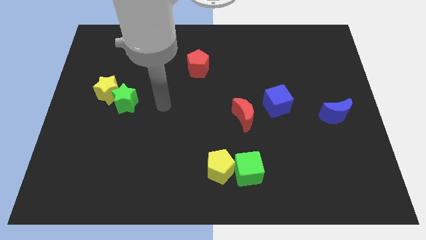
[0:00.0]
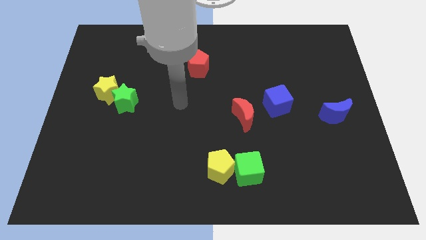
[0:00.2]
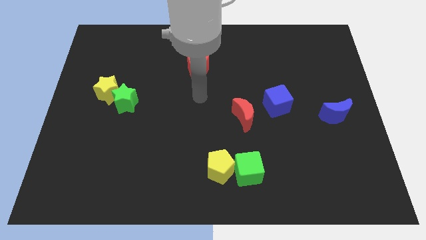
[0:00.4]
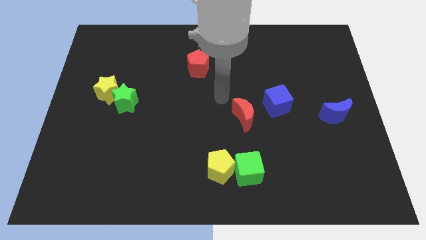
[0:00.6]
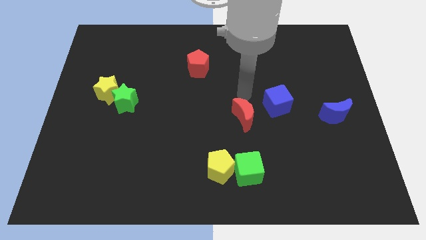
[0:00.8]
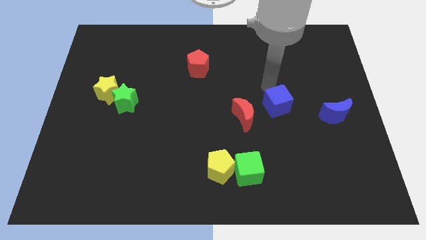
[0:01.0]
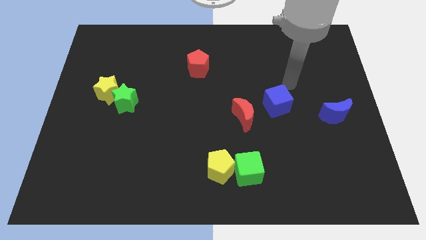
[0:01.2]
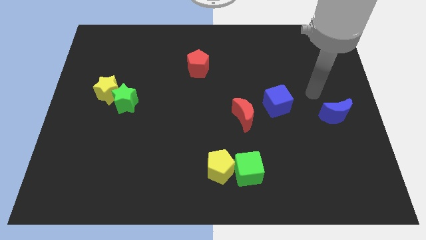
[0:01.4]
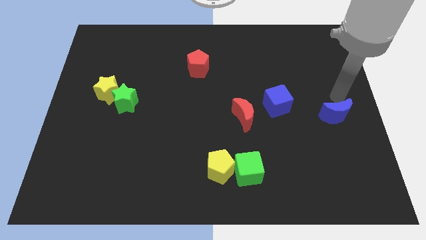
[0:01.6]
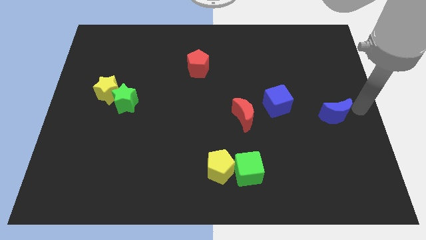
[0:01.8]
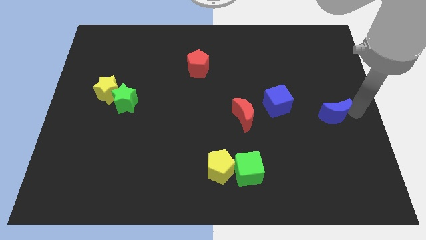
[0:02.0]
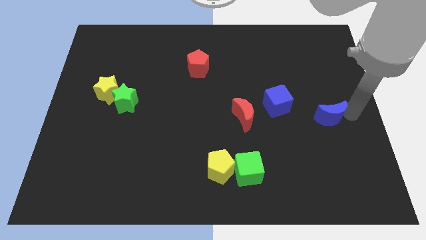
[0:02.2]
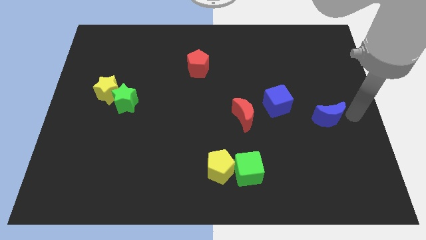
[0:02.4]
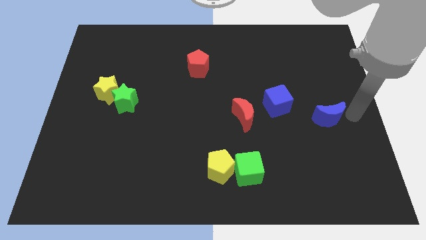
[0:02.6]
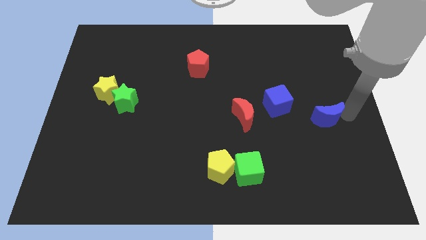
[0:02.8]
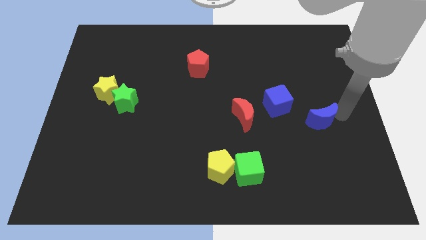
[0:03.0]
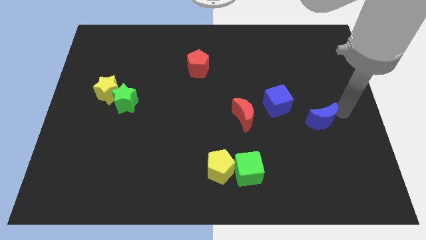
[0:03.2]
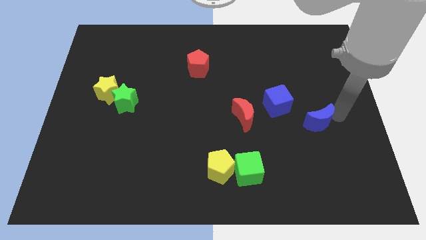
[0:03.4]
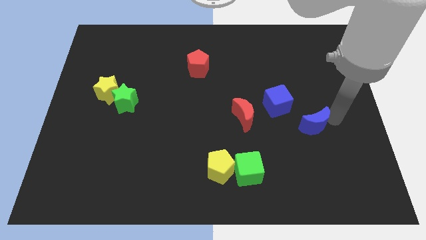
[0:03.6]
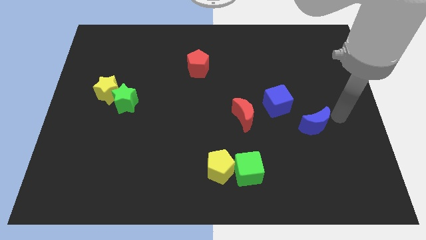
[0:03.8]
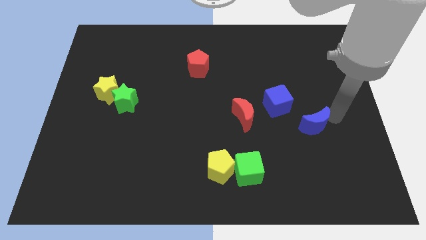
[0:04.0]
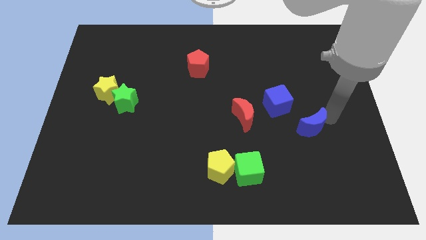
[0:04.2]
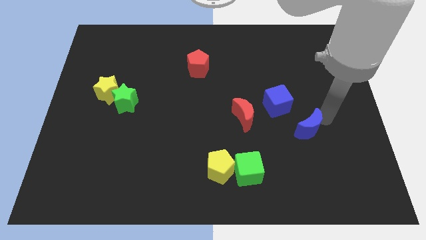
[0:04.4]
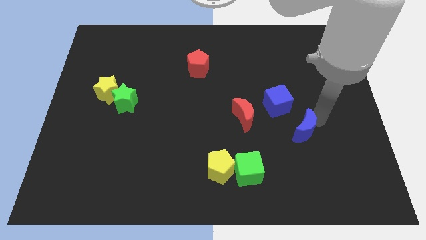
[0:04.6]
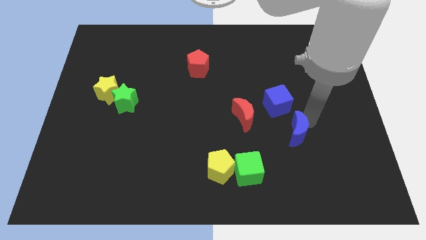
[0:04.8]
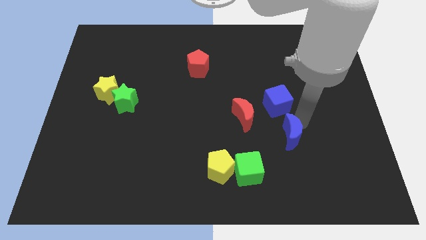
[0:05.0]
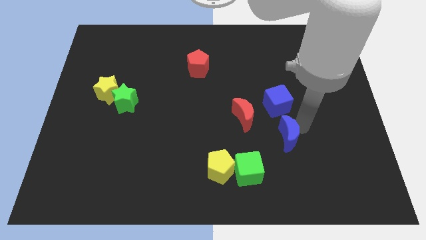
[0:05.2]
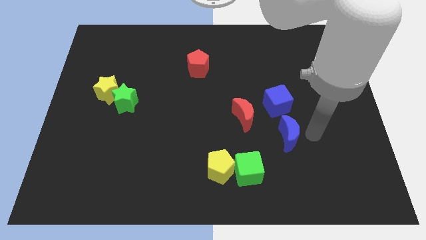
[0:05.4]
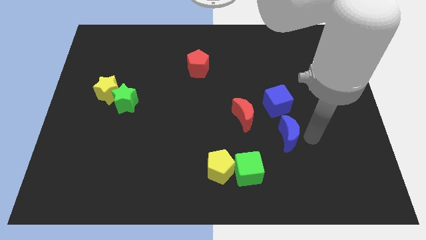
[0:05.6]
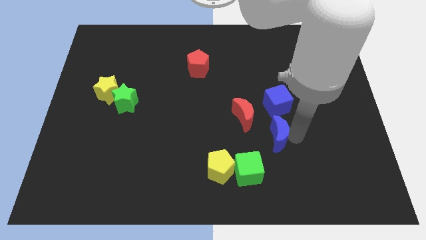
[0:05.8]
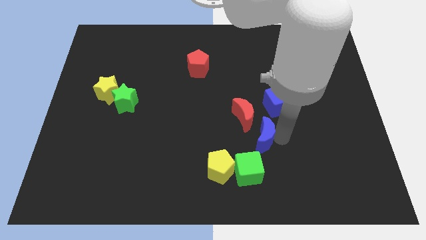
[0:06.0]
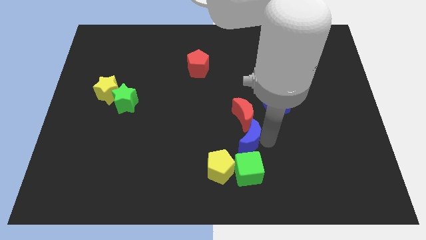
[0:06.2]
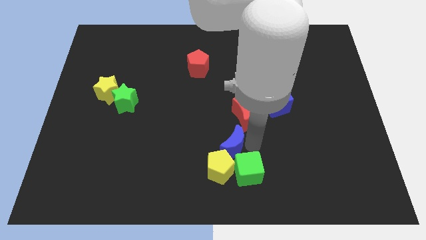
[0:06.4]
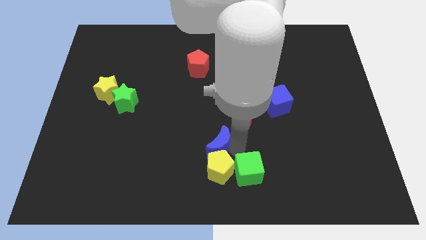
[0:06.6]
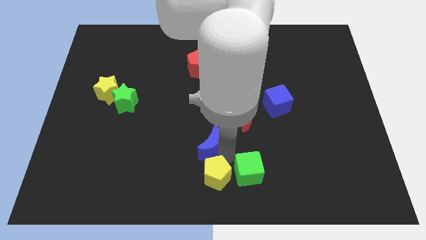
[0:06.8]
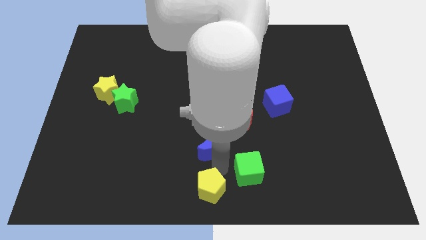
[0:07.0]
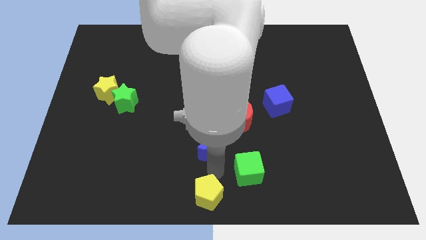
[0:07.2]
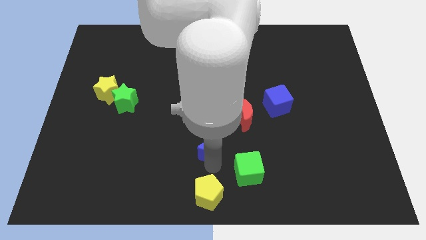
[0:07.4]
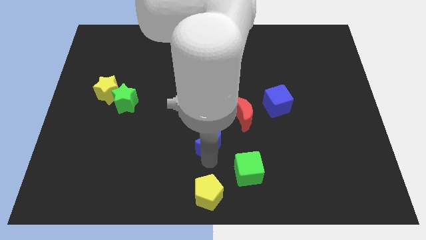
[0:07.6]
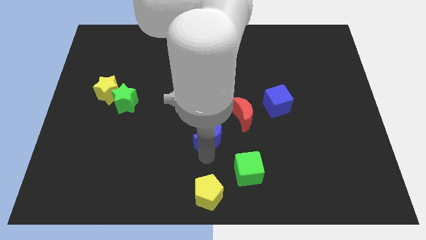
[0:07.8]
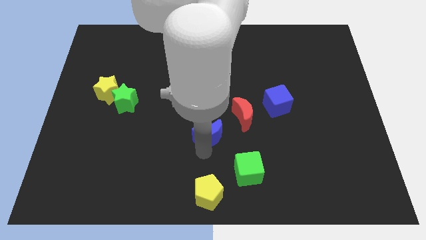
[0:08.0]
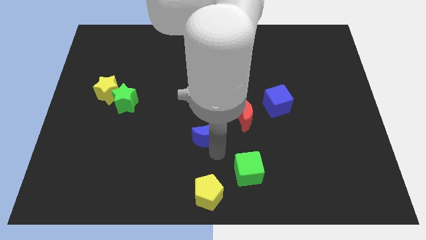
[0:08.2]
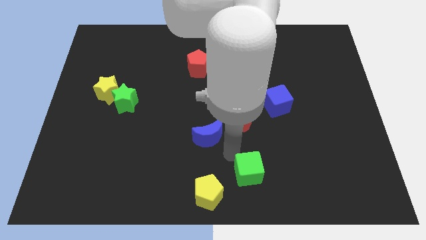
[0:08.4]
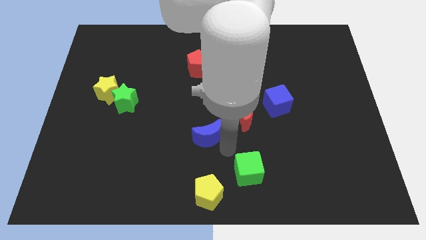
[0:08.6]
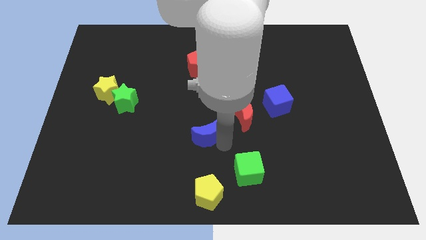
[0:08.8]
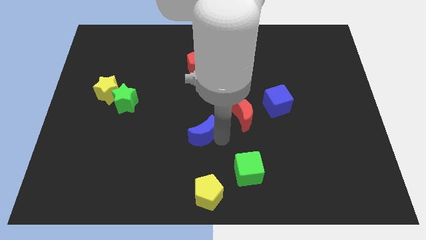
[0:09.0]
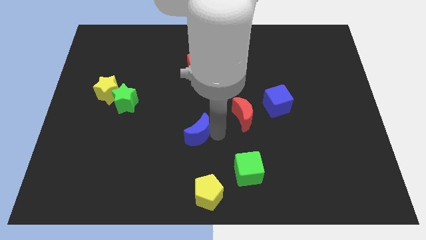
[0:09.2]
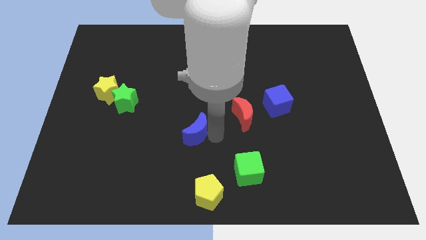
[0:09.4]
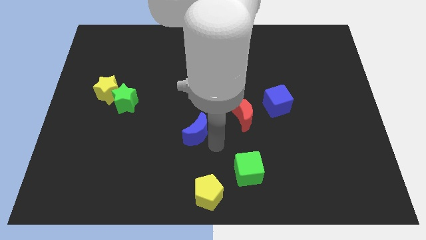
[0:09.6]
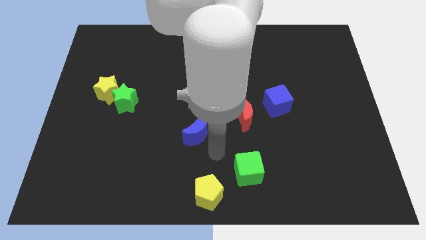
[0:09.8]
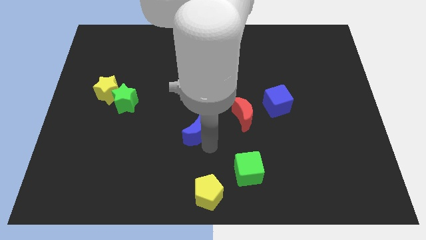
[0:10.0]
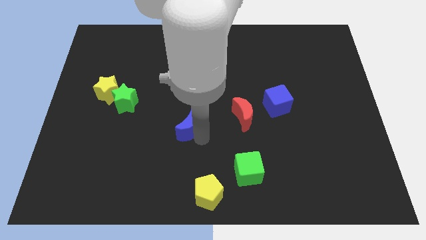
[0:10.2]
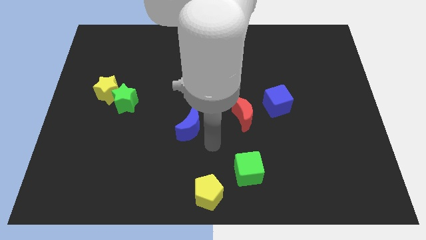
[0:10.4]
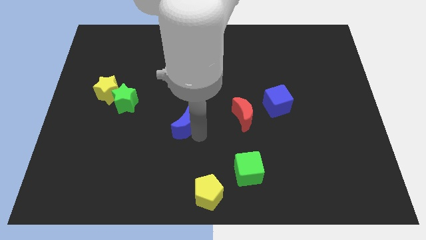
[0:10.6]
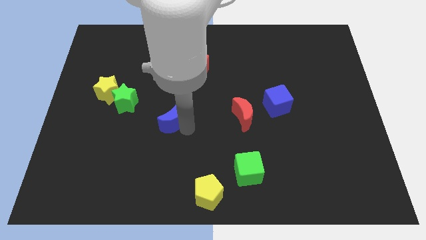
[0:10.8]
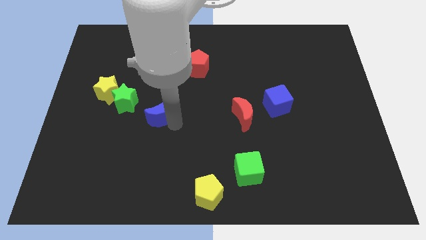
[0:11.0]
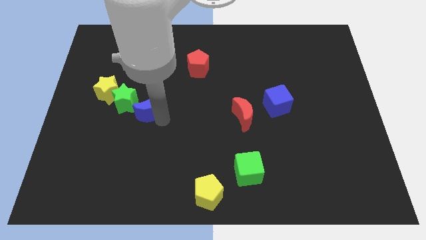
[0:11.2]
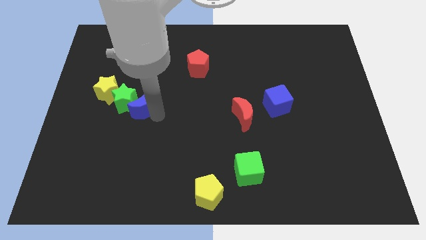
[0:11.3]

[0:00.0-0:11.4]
put the blue moon close to the green star

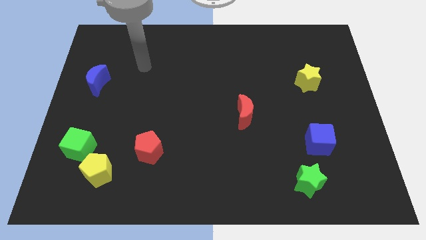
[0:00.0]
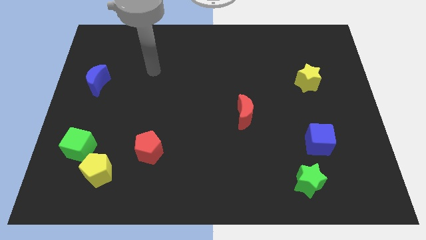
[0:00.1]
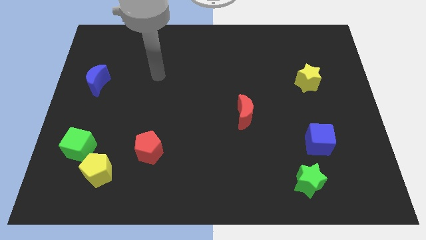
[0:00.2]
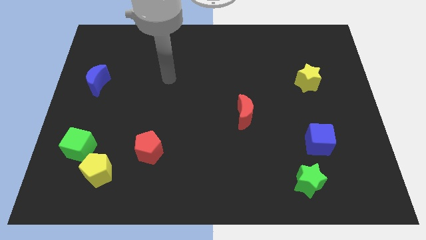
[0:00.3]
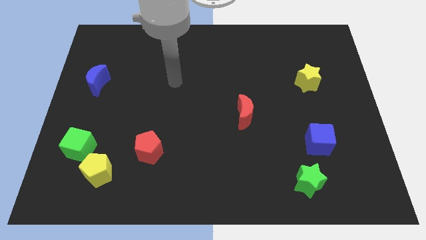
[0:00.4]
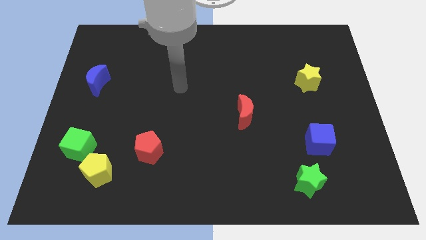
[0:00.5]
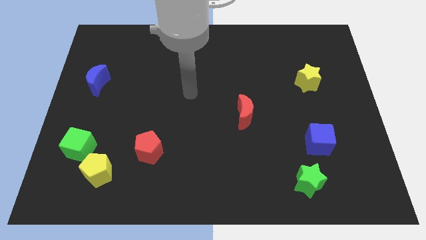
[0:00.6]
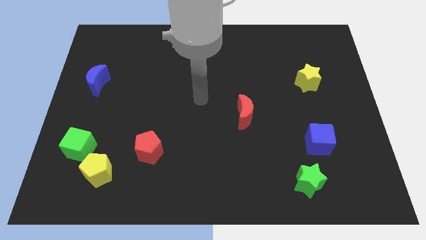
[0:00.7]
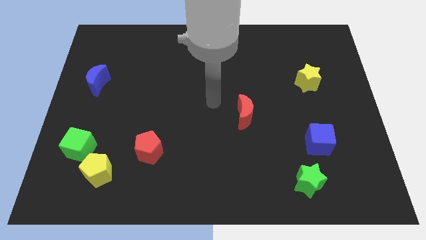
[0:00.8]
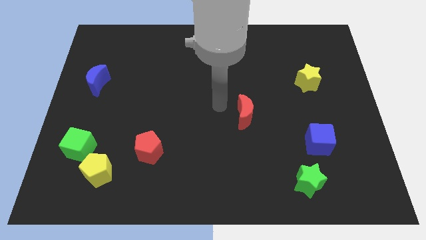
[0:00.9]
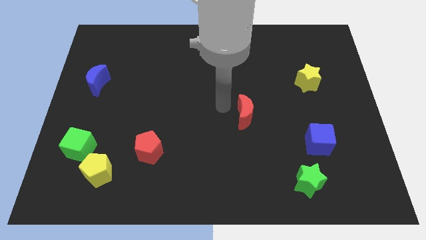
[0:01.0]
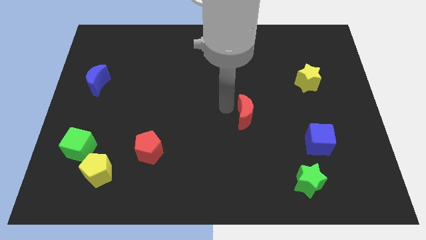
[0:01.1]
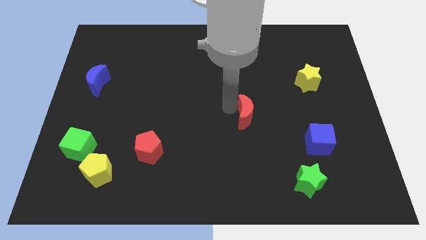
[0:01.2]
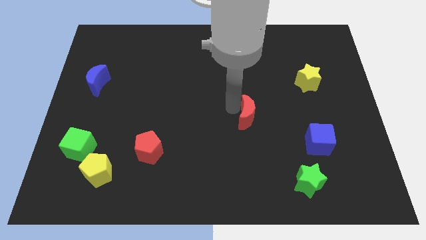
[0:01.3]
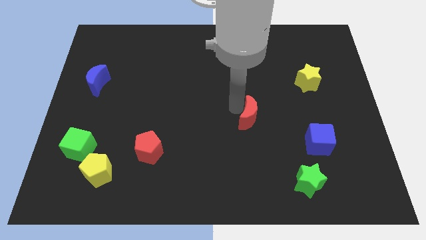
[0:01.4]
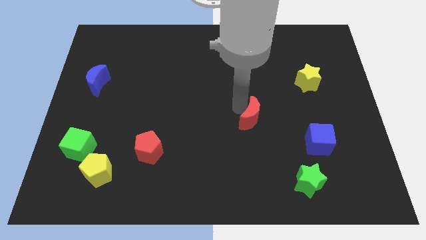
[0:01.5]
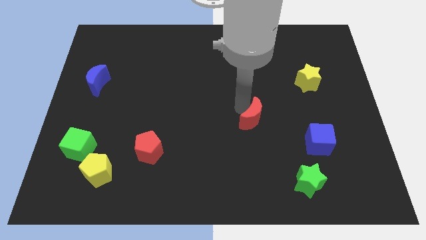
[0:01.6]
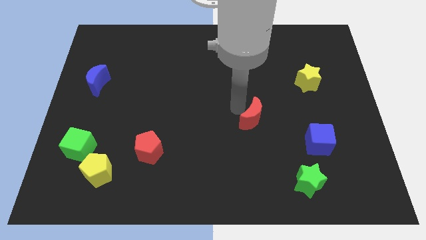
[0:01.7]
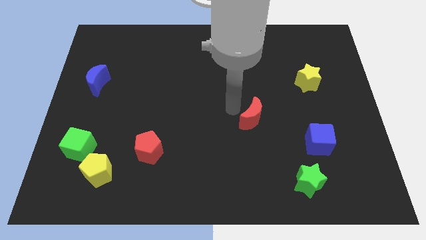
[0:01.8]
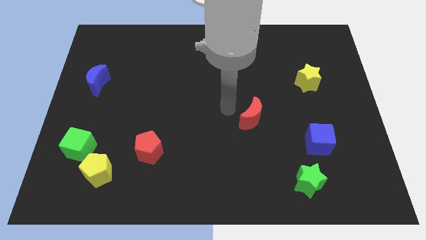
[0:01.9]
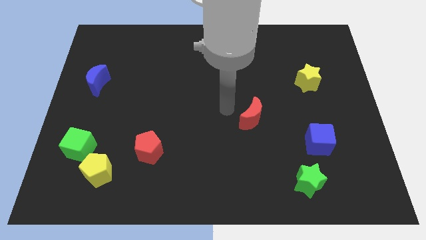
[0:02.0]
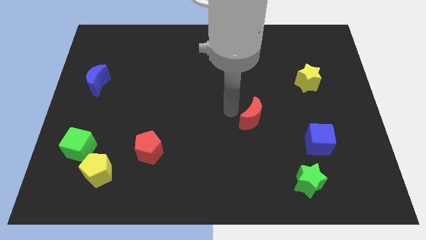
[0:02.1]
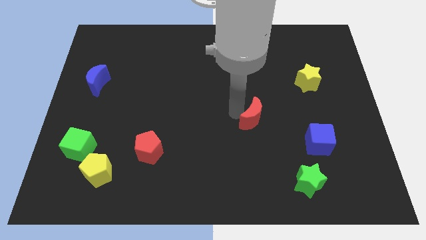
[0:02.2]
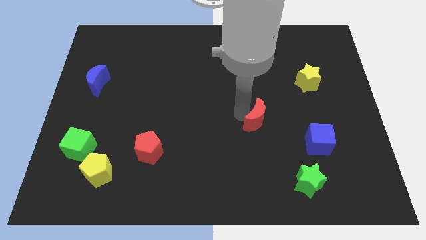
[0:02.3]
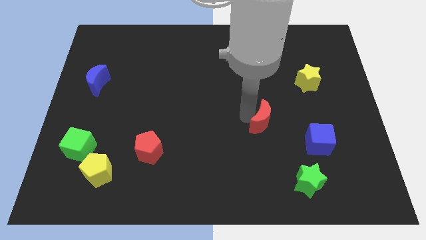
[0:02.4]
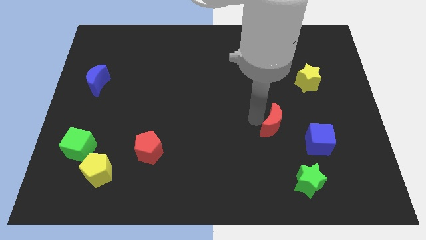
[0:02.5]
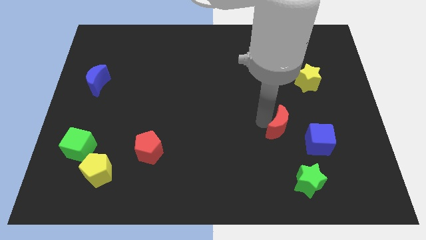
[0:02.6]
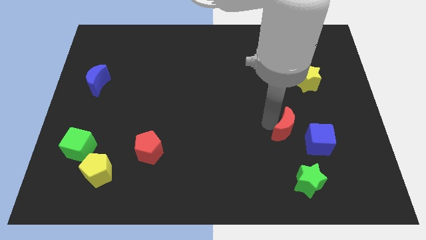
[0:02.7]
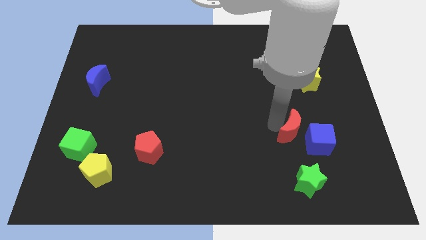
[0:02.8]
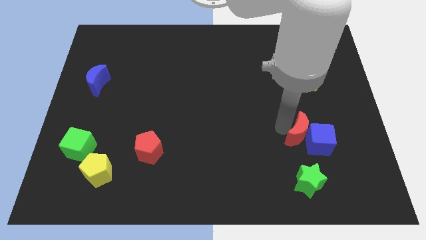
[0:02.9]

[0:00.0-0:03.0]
put the red moon towards the blue cube
